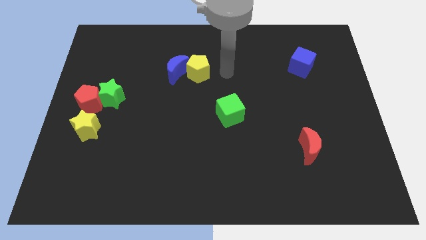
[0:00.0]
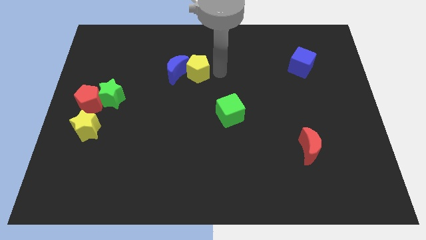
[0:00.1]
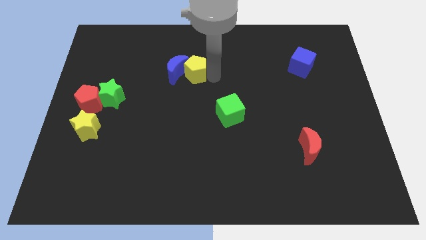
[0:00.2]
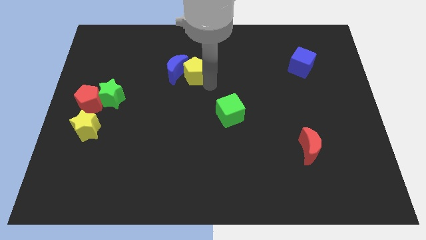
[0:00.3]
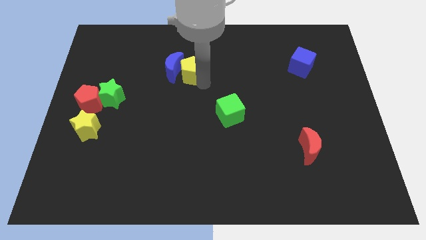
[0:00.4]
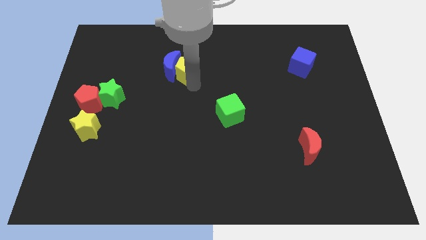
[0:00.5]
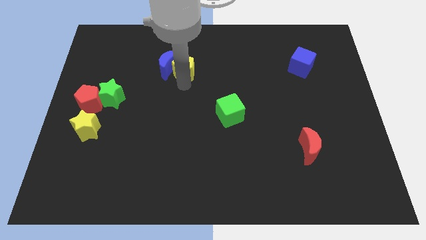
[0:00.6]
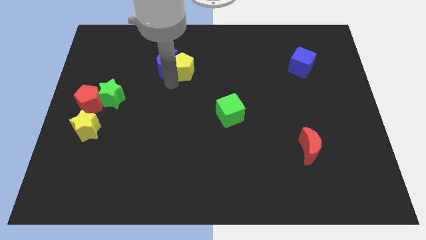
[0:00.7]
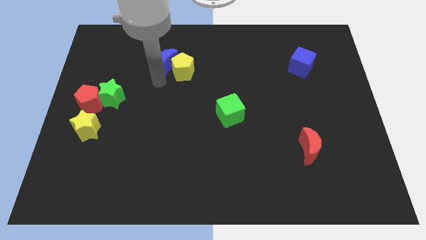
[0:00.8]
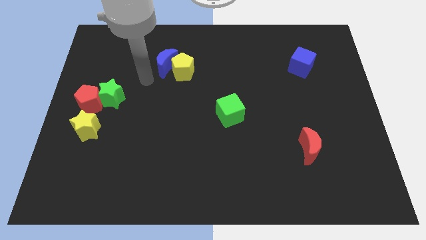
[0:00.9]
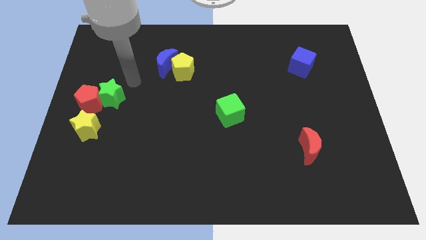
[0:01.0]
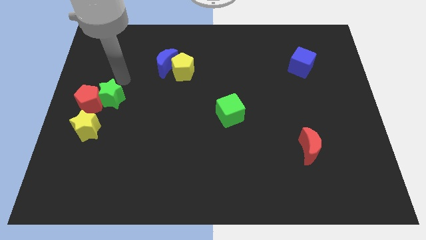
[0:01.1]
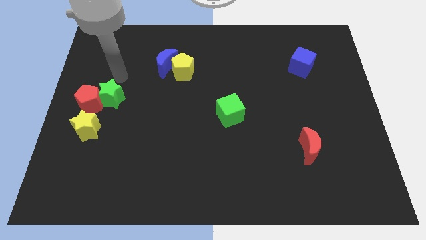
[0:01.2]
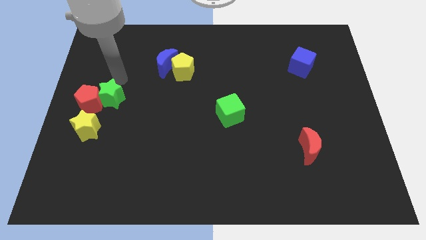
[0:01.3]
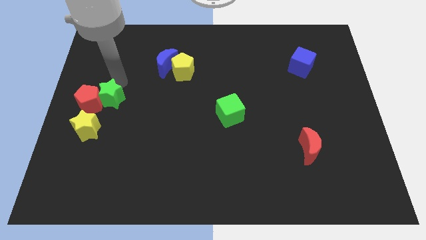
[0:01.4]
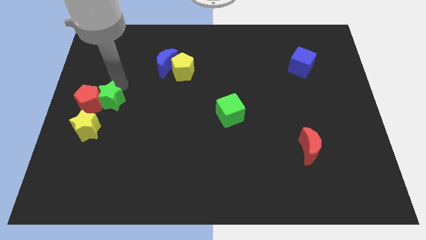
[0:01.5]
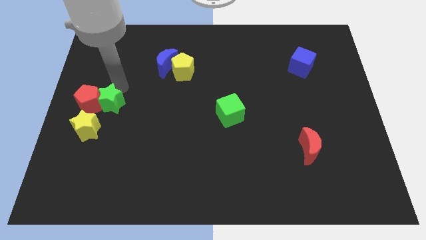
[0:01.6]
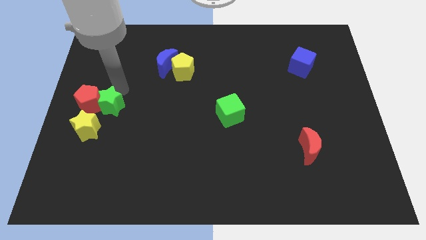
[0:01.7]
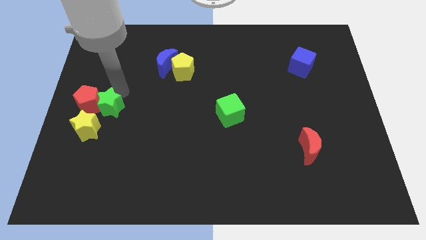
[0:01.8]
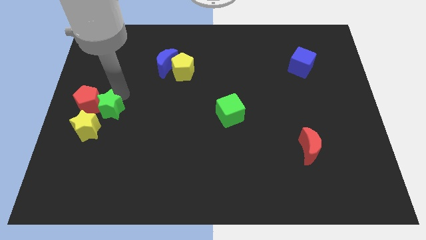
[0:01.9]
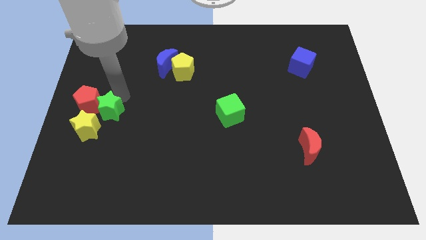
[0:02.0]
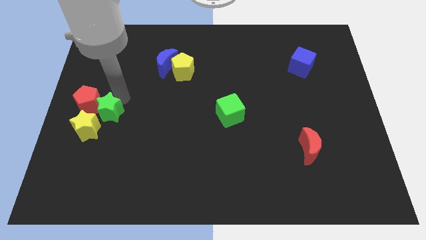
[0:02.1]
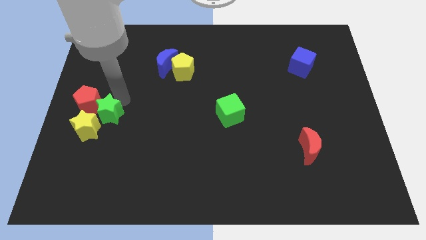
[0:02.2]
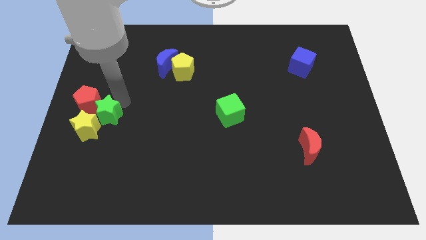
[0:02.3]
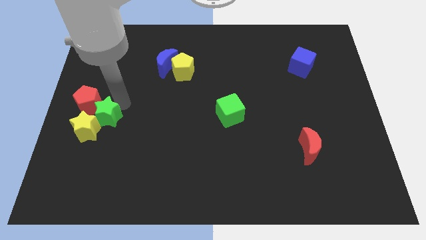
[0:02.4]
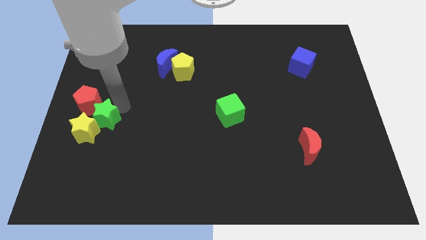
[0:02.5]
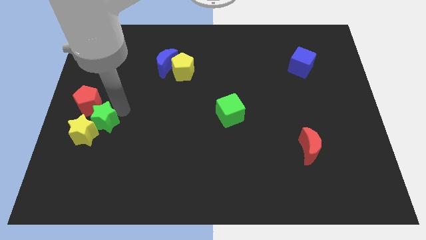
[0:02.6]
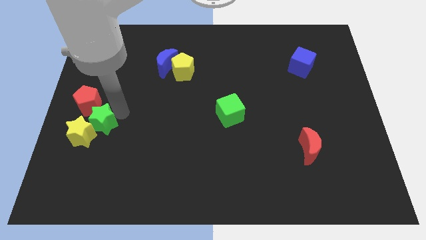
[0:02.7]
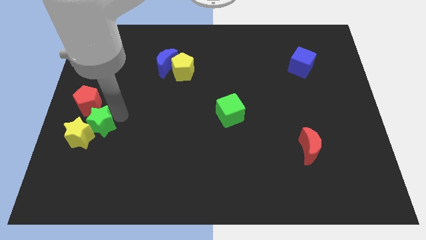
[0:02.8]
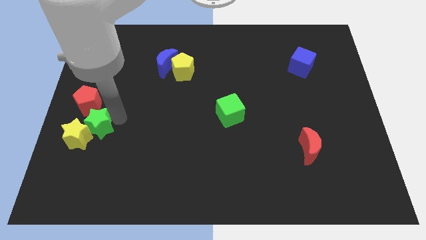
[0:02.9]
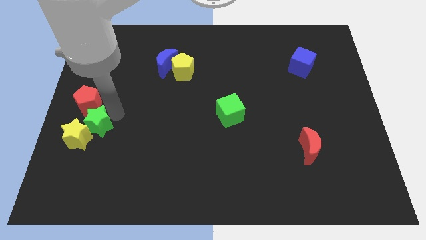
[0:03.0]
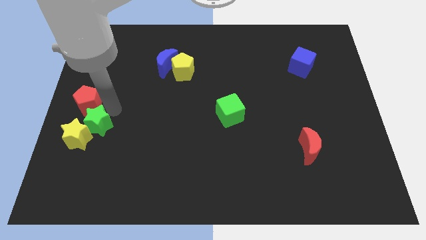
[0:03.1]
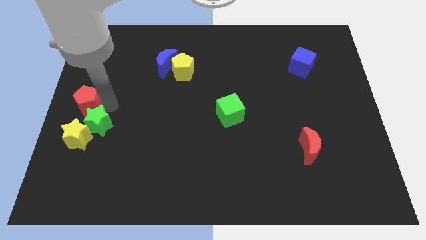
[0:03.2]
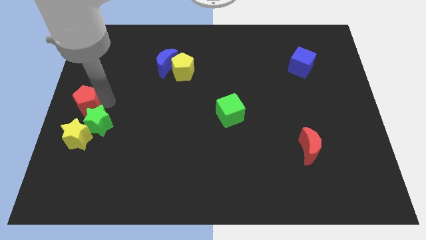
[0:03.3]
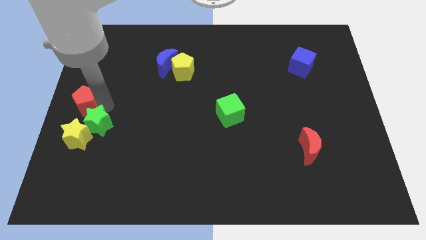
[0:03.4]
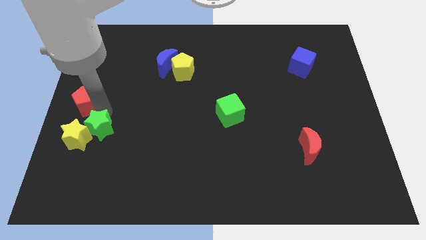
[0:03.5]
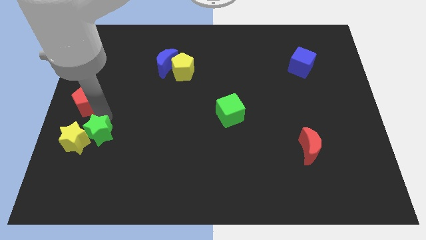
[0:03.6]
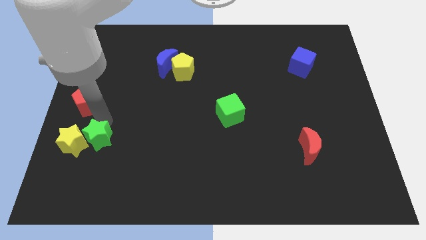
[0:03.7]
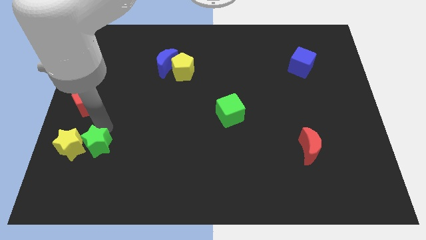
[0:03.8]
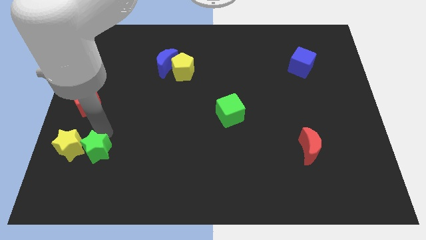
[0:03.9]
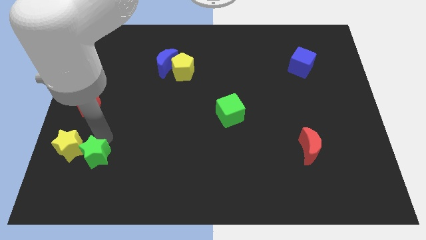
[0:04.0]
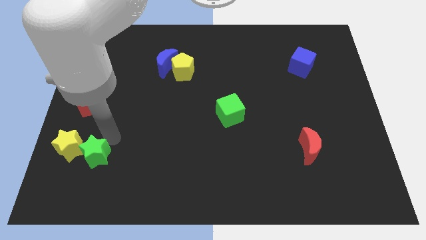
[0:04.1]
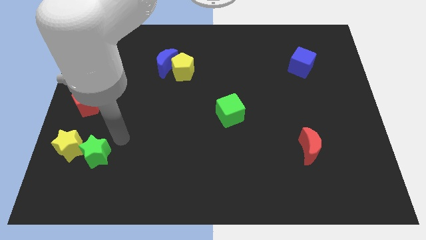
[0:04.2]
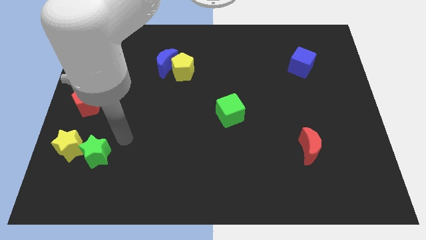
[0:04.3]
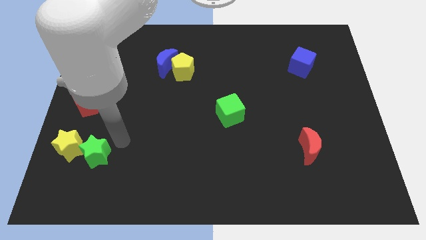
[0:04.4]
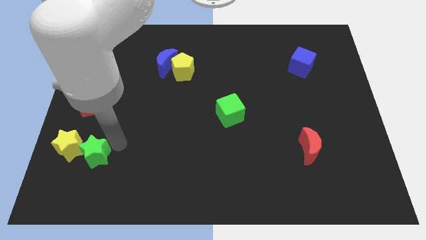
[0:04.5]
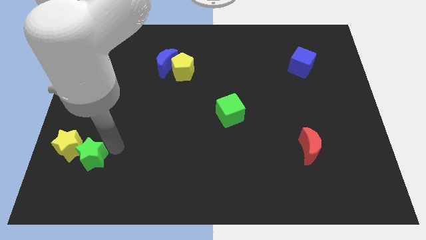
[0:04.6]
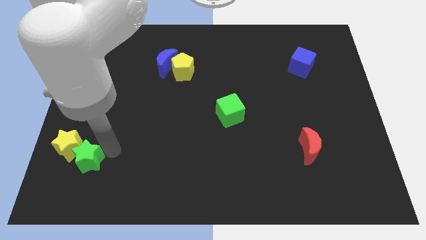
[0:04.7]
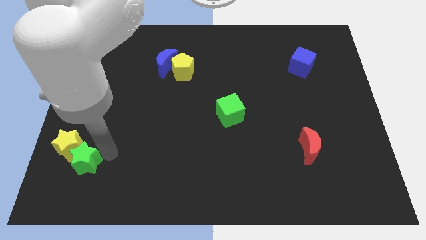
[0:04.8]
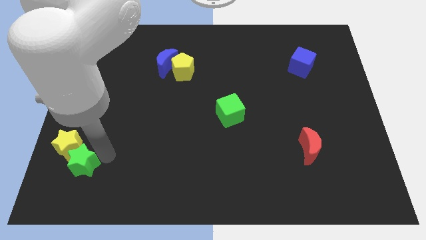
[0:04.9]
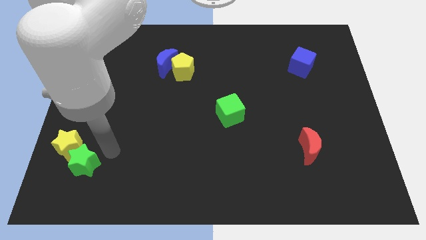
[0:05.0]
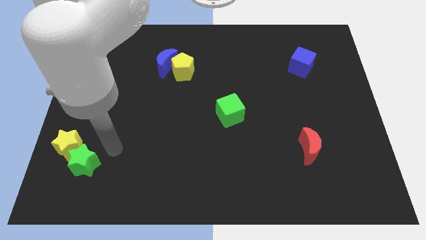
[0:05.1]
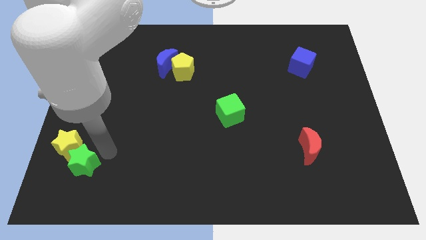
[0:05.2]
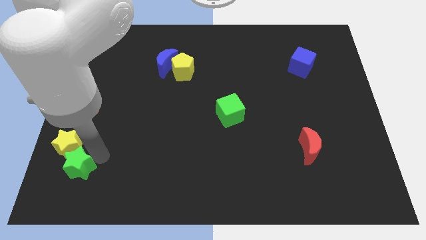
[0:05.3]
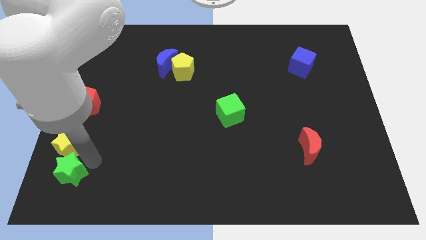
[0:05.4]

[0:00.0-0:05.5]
push the green star to the bottom left

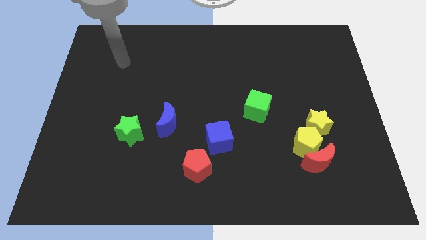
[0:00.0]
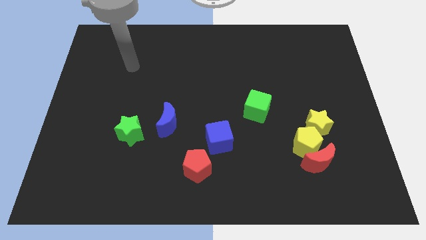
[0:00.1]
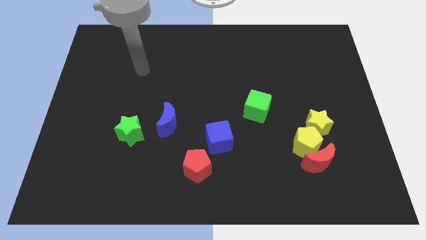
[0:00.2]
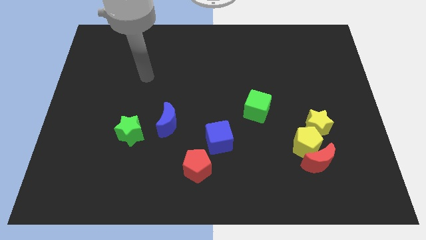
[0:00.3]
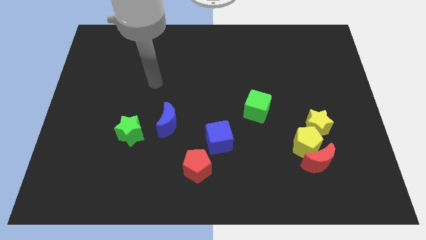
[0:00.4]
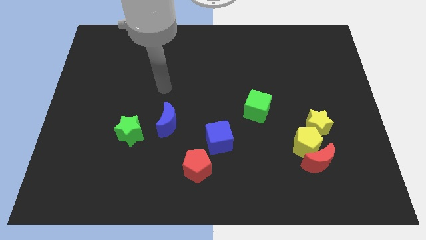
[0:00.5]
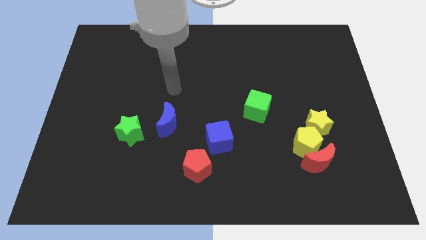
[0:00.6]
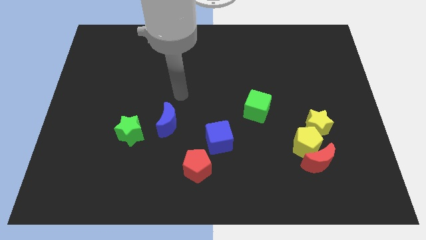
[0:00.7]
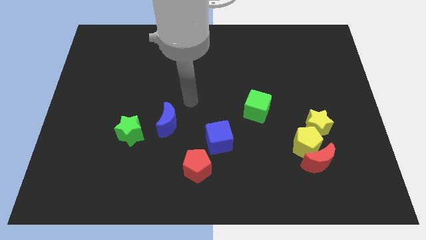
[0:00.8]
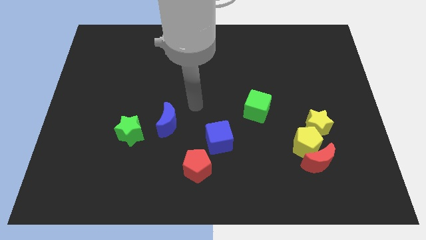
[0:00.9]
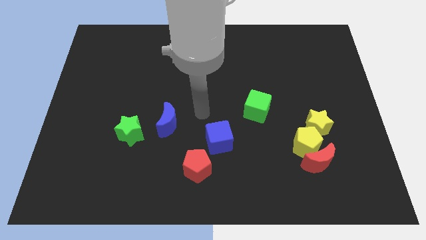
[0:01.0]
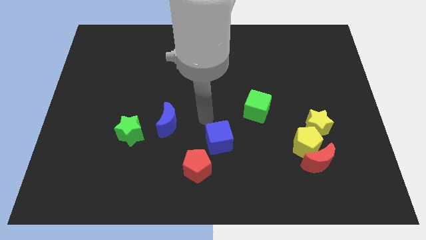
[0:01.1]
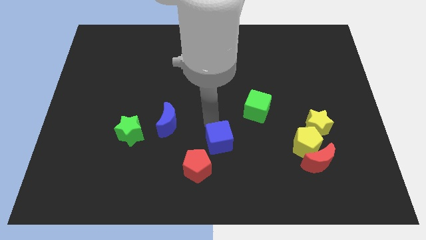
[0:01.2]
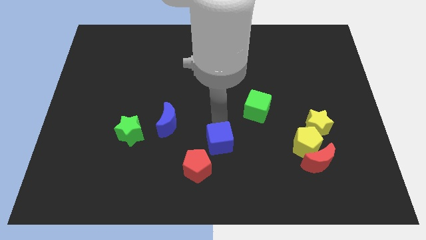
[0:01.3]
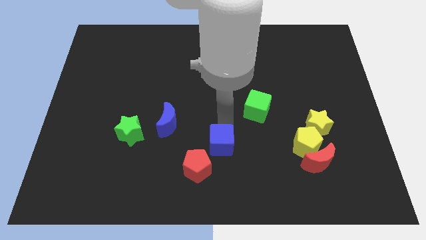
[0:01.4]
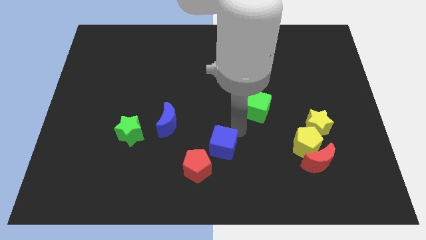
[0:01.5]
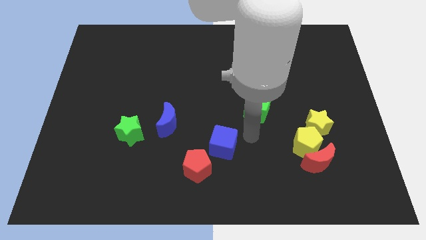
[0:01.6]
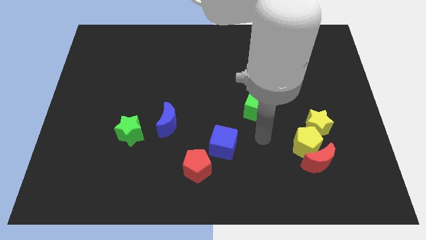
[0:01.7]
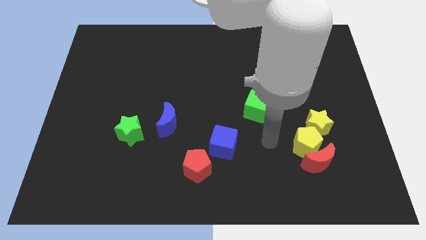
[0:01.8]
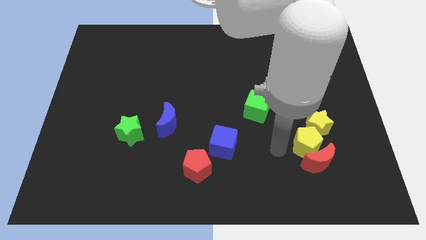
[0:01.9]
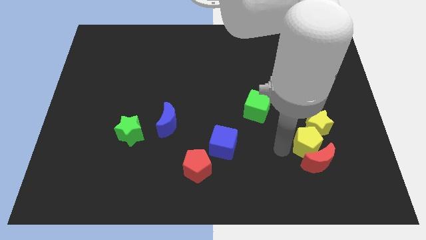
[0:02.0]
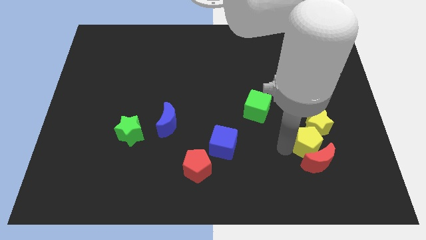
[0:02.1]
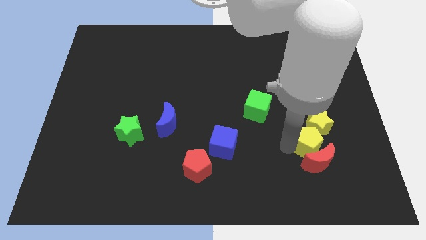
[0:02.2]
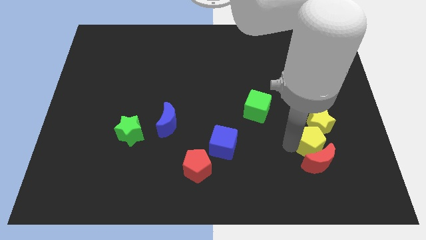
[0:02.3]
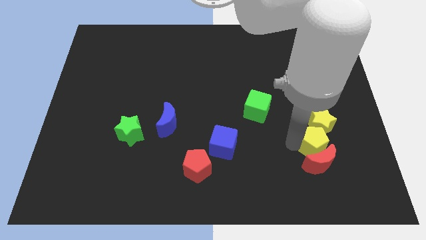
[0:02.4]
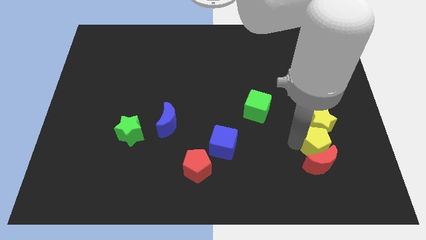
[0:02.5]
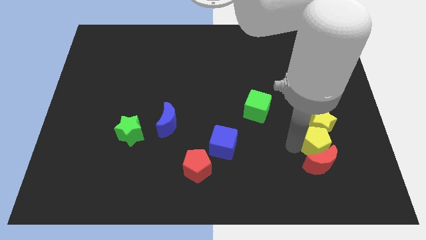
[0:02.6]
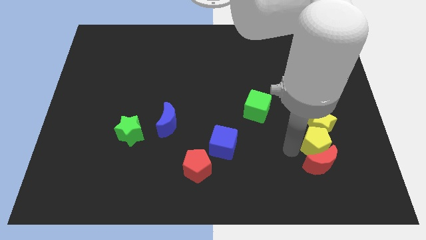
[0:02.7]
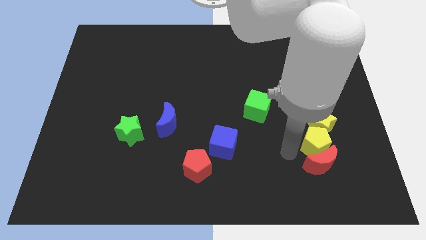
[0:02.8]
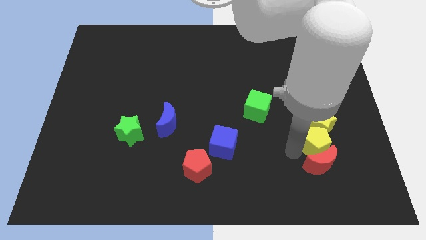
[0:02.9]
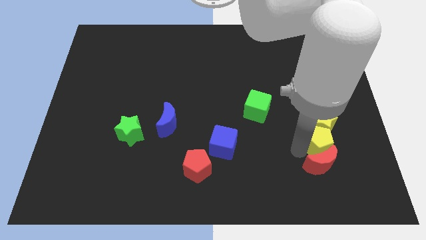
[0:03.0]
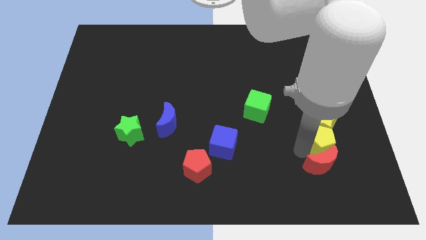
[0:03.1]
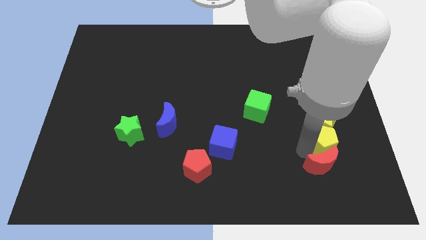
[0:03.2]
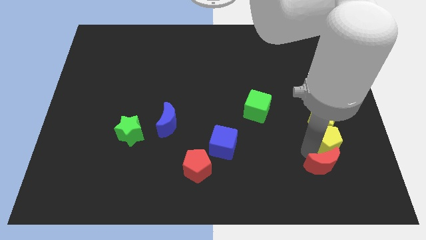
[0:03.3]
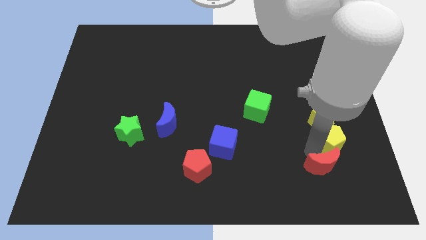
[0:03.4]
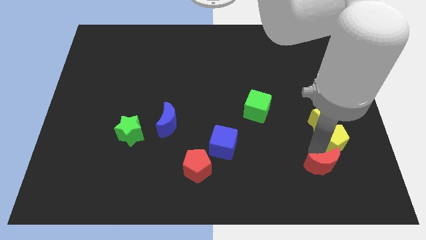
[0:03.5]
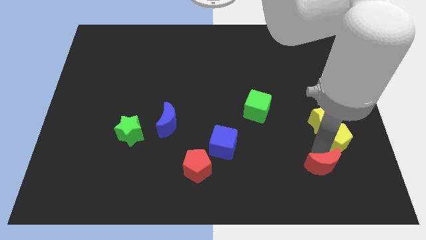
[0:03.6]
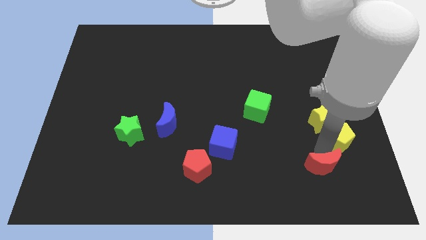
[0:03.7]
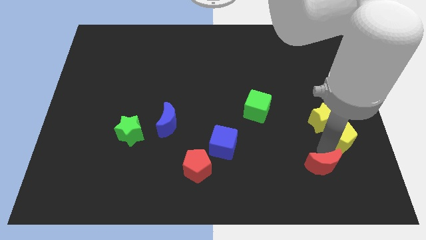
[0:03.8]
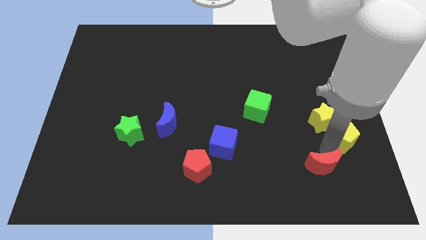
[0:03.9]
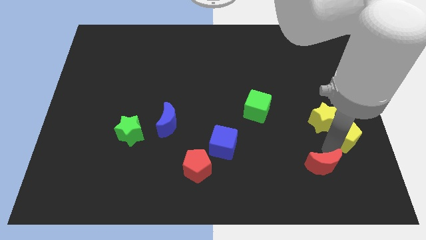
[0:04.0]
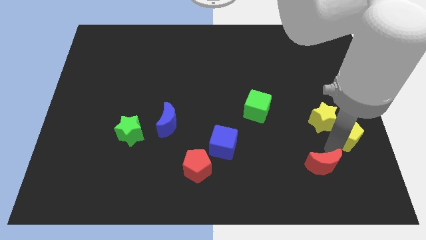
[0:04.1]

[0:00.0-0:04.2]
move the yellow pentagon to the right side
